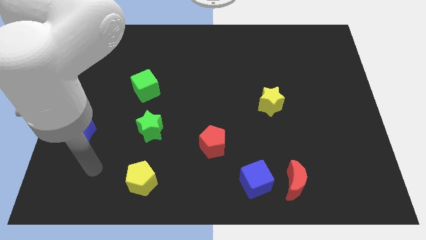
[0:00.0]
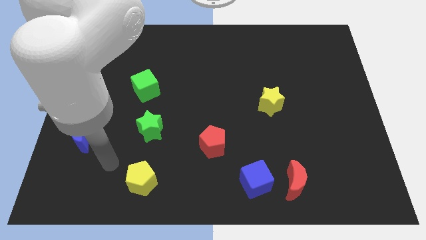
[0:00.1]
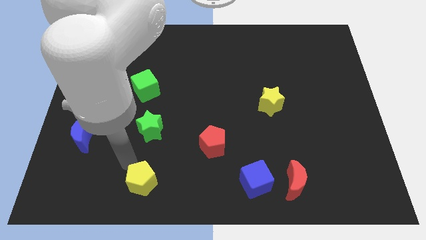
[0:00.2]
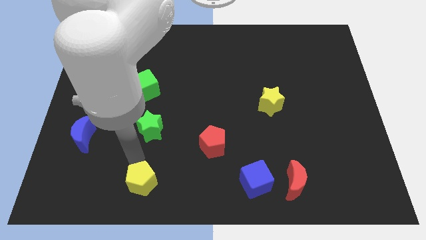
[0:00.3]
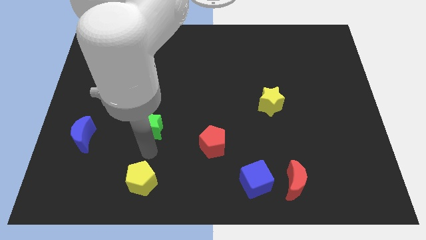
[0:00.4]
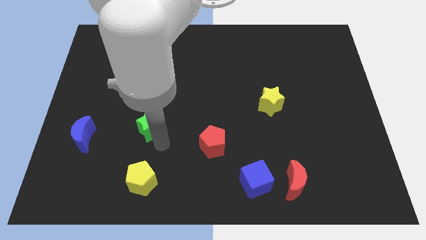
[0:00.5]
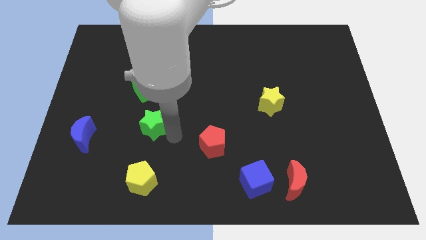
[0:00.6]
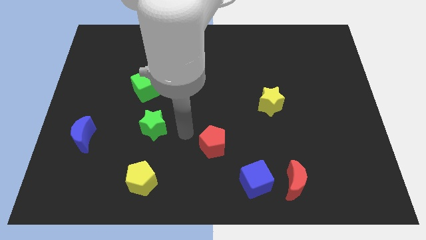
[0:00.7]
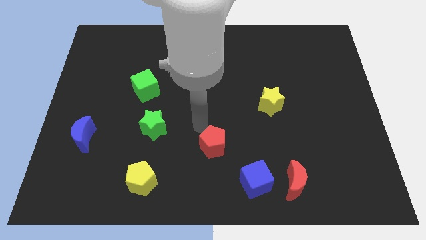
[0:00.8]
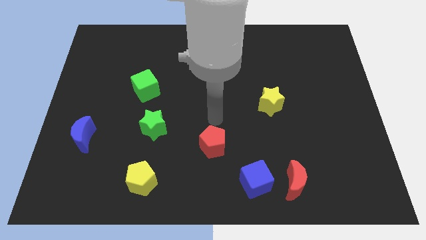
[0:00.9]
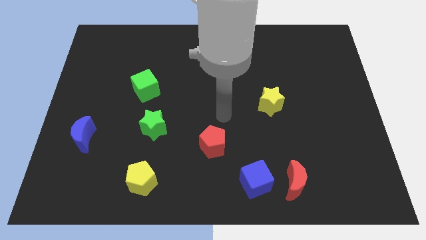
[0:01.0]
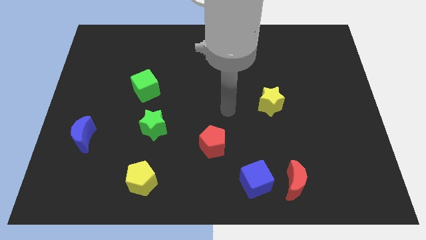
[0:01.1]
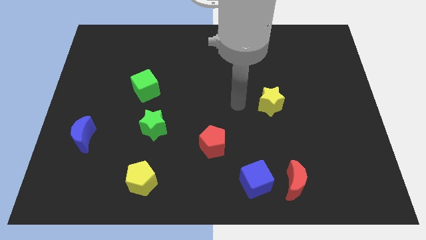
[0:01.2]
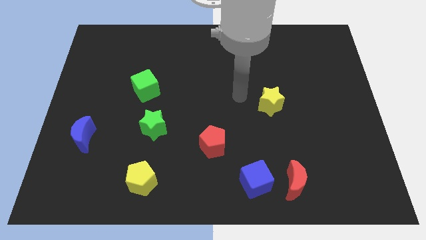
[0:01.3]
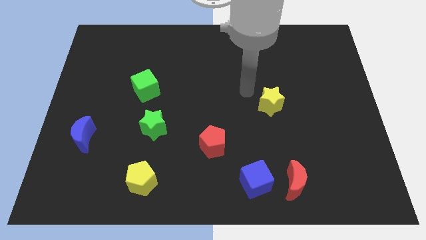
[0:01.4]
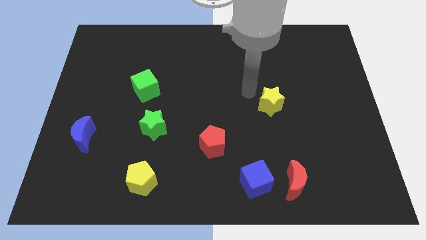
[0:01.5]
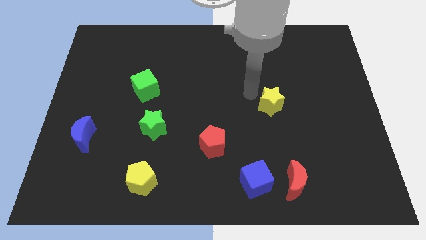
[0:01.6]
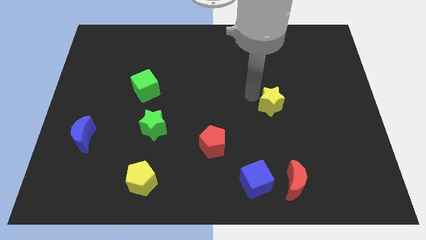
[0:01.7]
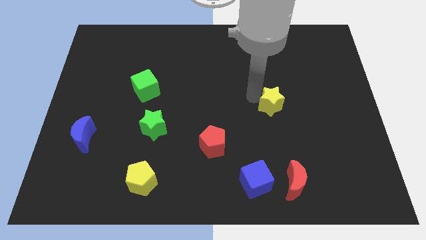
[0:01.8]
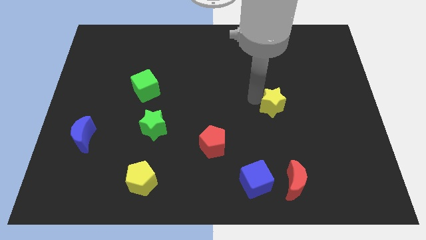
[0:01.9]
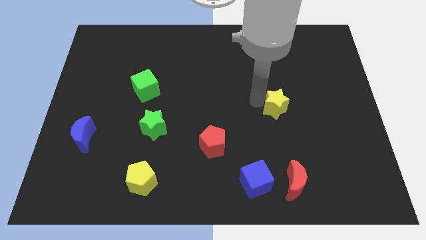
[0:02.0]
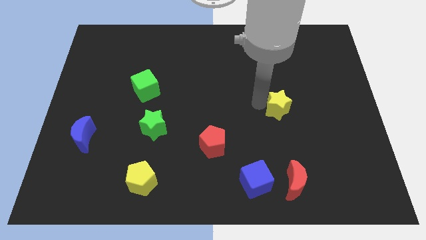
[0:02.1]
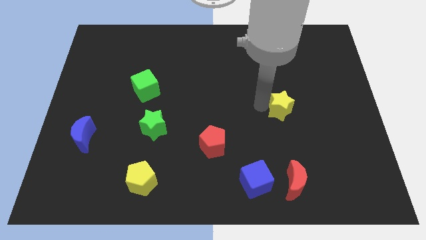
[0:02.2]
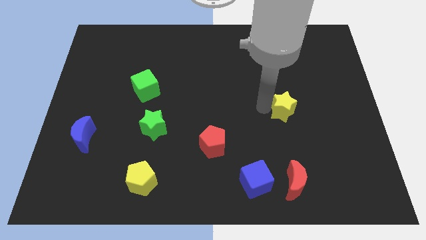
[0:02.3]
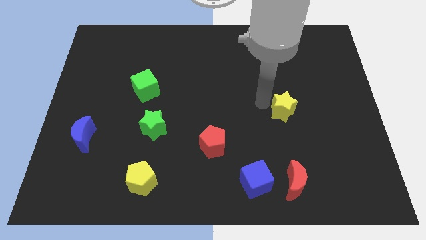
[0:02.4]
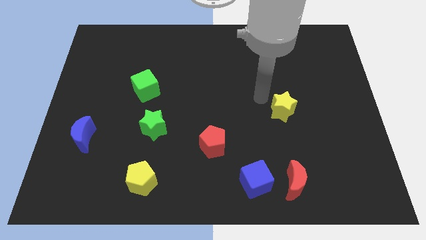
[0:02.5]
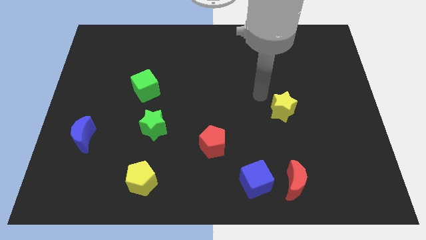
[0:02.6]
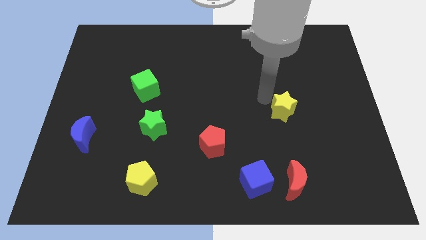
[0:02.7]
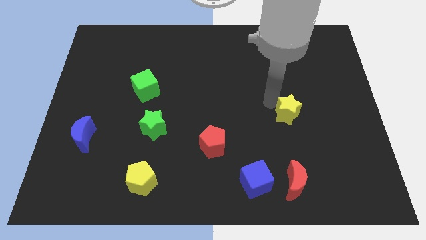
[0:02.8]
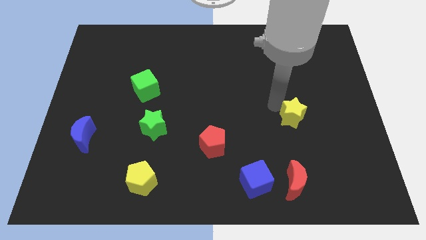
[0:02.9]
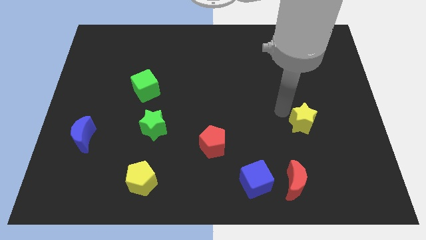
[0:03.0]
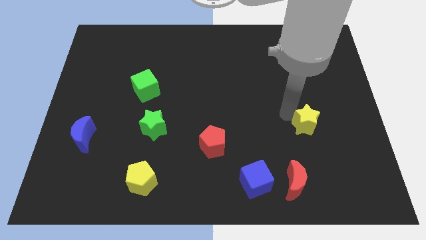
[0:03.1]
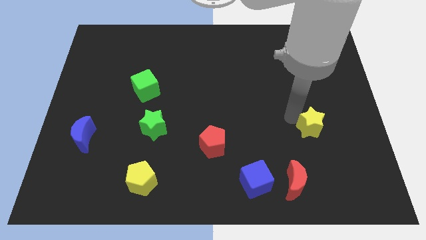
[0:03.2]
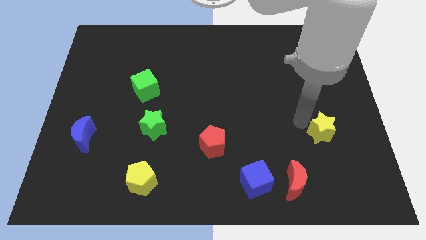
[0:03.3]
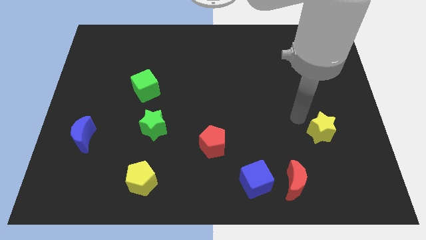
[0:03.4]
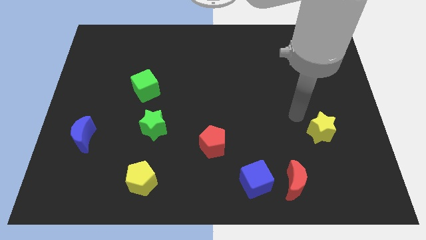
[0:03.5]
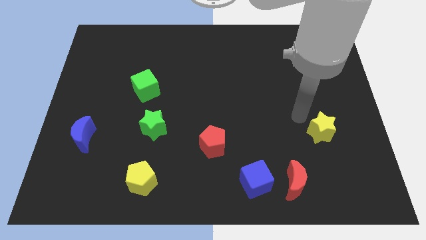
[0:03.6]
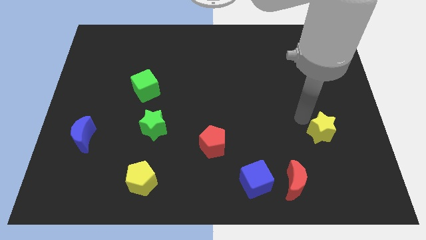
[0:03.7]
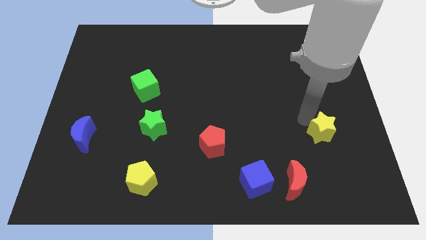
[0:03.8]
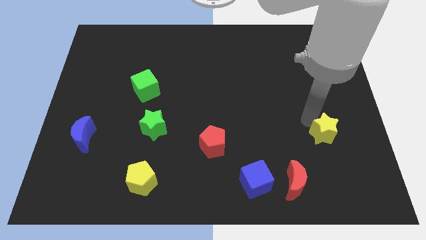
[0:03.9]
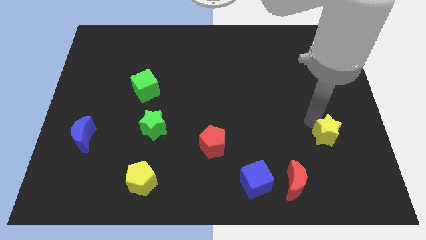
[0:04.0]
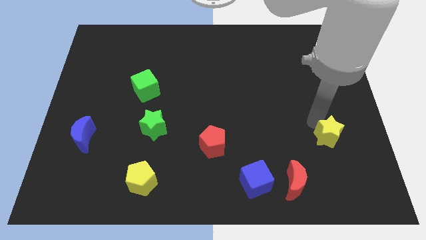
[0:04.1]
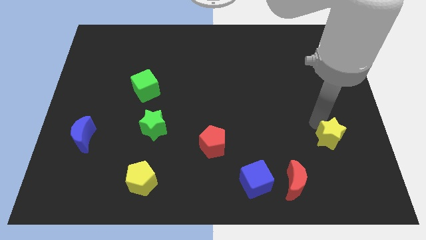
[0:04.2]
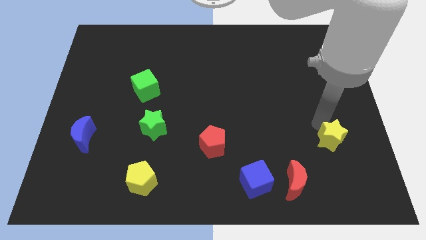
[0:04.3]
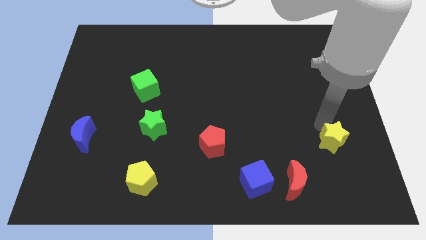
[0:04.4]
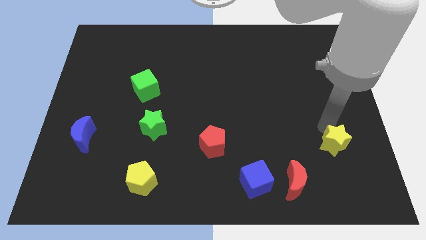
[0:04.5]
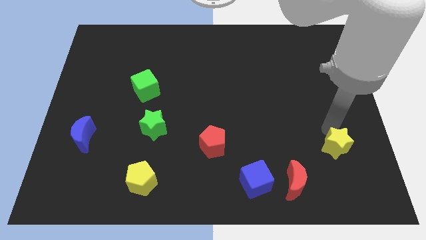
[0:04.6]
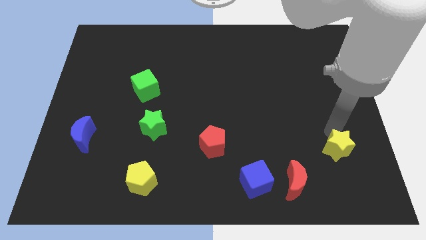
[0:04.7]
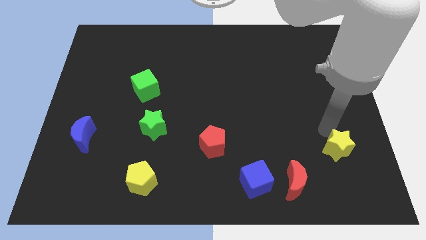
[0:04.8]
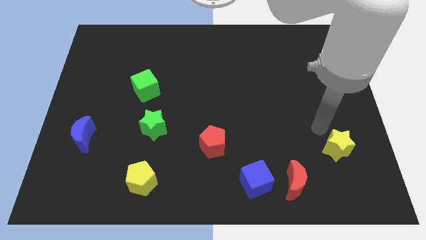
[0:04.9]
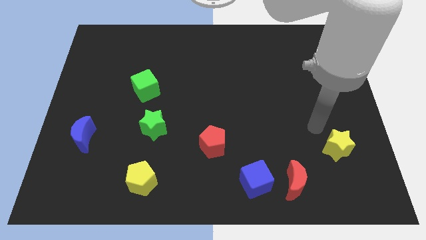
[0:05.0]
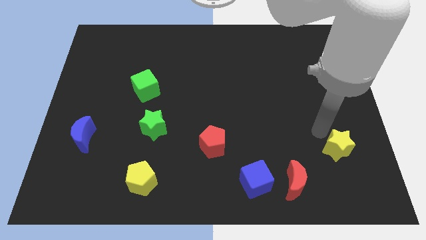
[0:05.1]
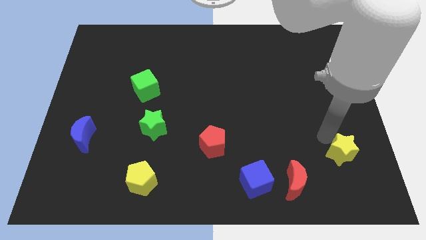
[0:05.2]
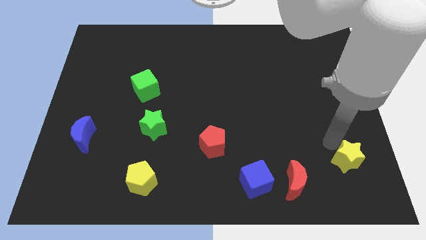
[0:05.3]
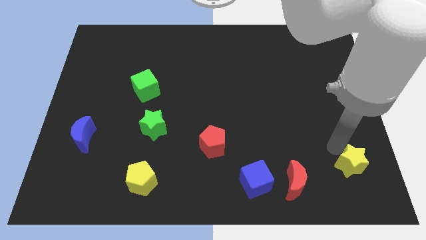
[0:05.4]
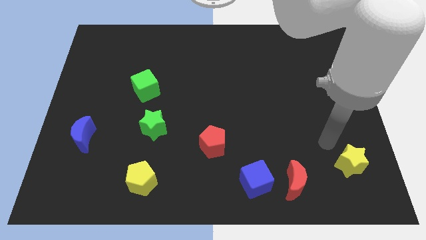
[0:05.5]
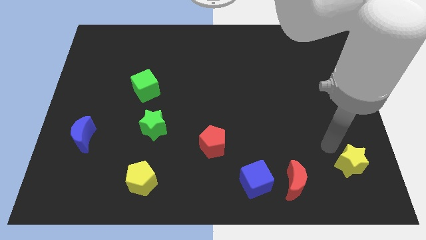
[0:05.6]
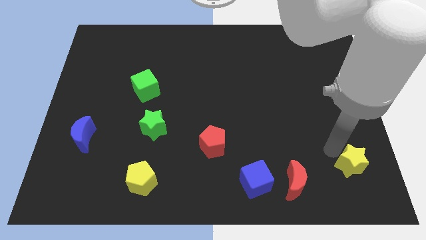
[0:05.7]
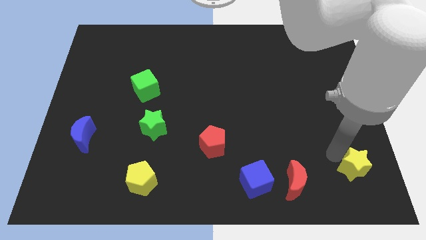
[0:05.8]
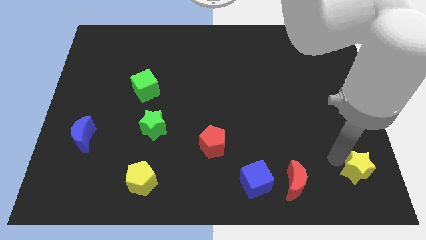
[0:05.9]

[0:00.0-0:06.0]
move the yellow star to the lower right corner

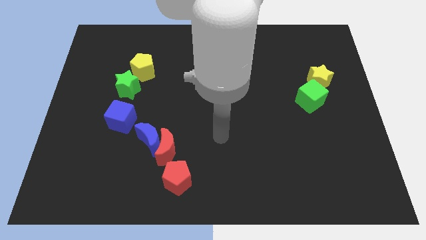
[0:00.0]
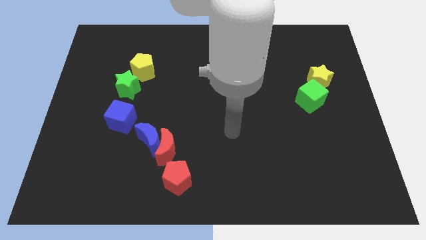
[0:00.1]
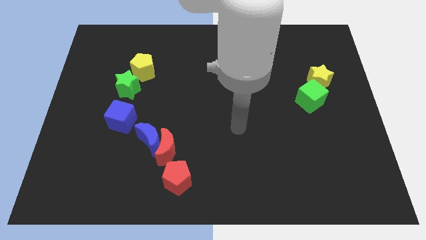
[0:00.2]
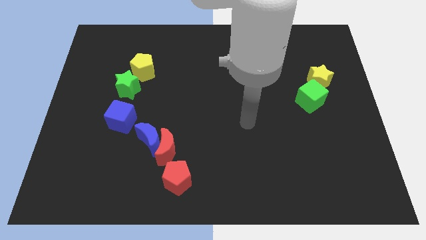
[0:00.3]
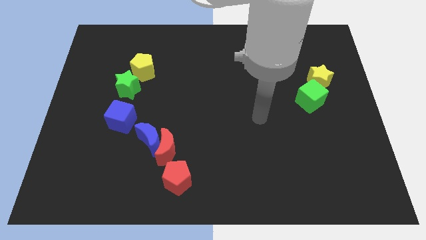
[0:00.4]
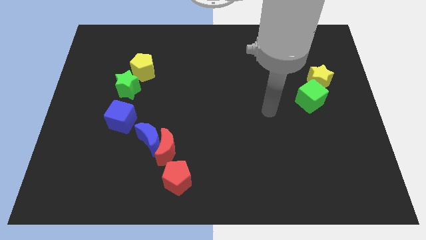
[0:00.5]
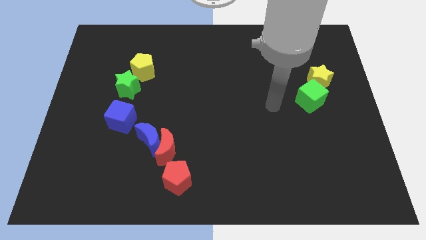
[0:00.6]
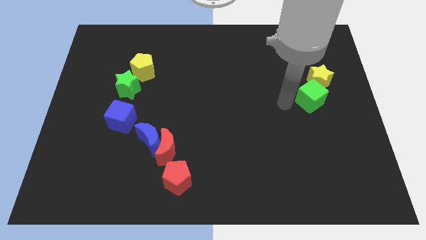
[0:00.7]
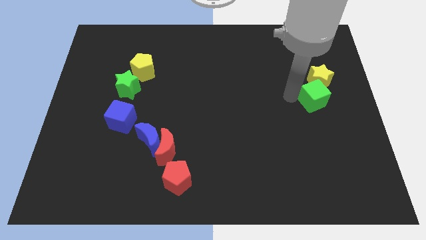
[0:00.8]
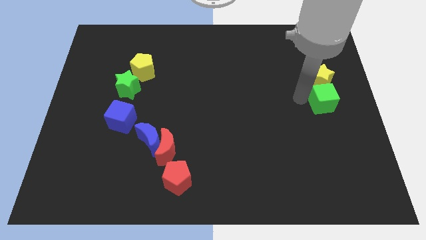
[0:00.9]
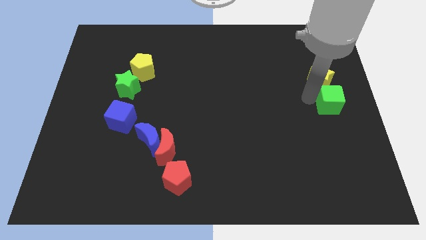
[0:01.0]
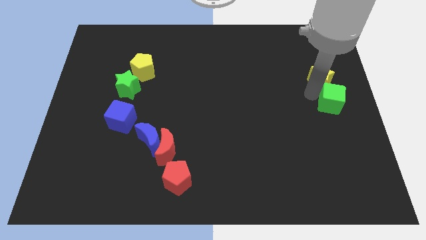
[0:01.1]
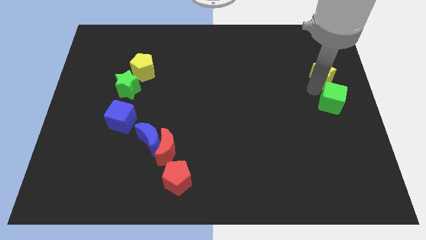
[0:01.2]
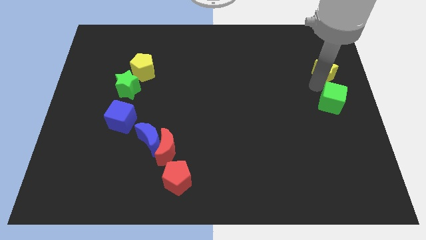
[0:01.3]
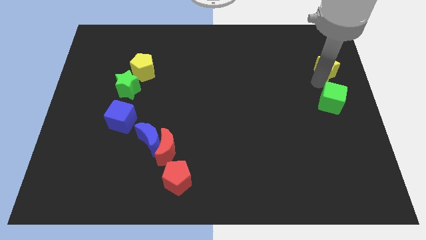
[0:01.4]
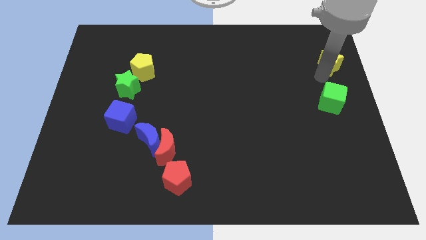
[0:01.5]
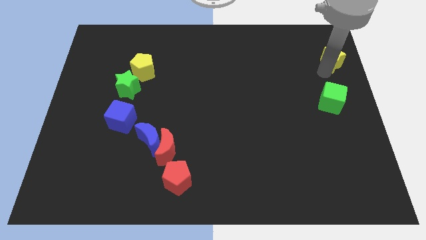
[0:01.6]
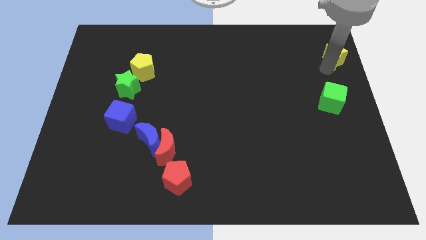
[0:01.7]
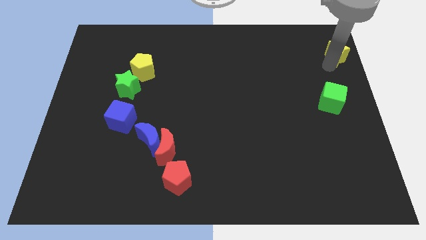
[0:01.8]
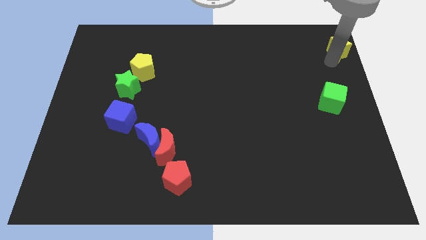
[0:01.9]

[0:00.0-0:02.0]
put the yellow star to the top right of the board
